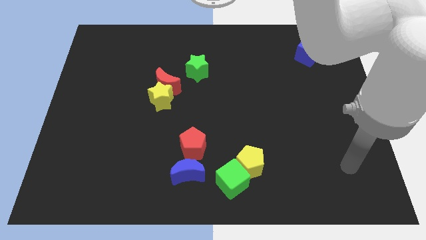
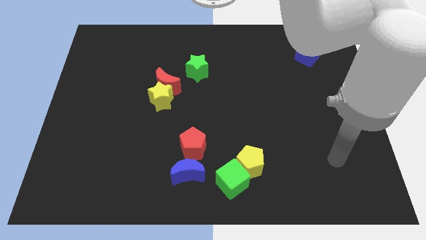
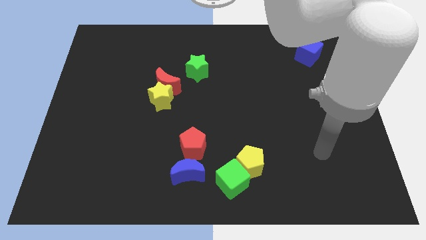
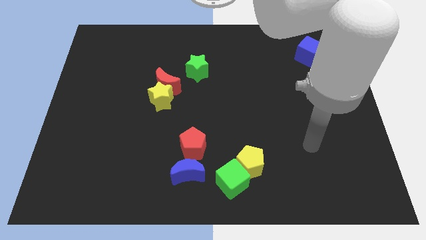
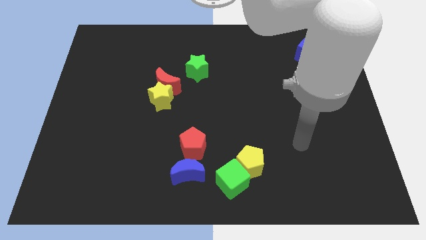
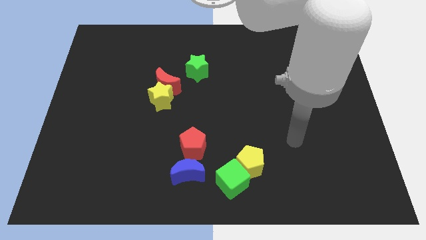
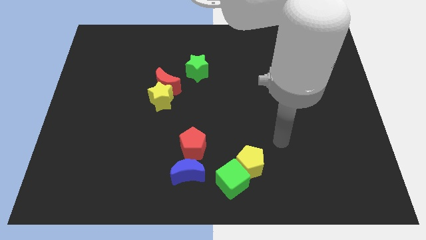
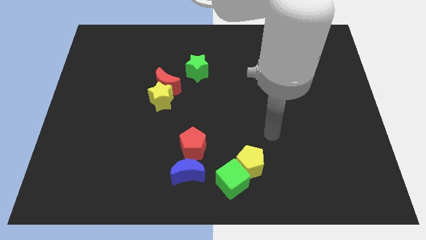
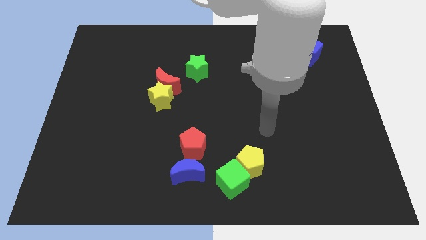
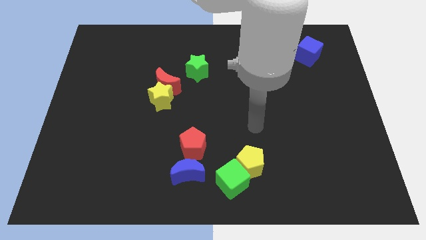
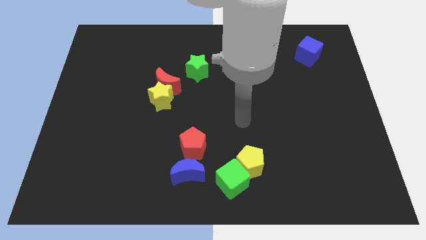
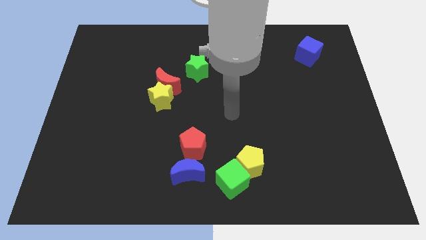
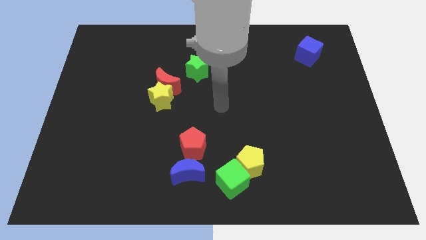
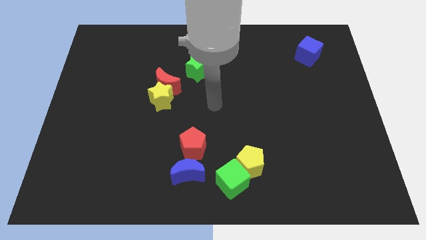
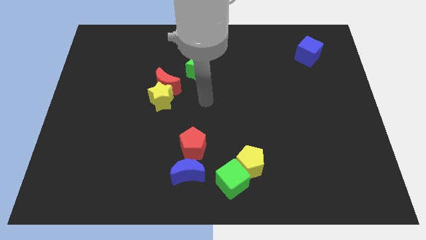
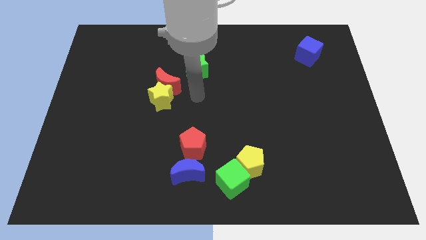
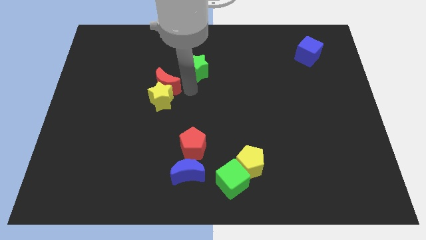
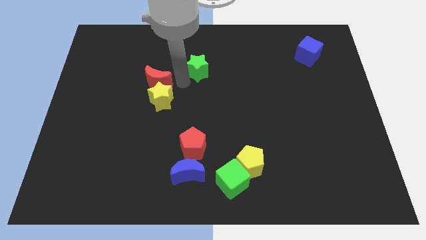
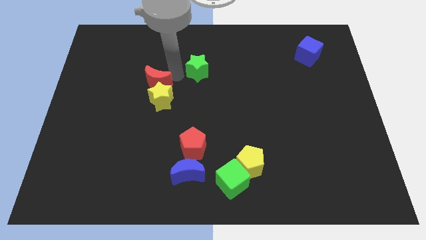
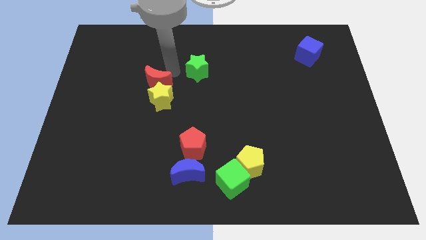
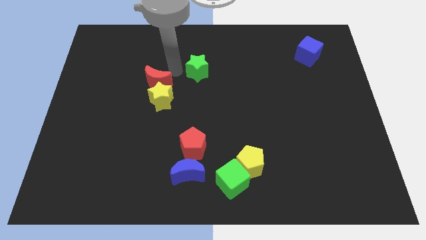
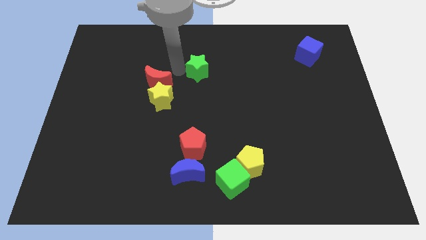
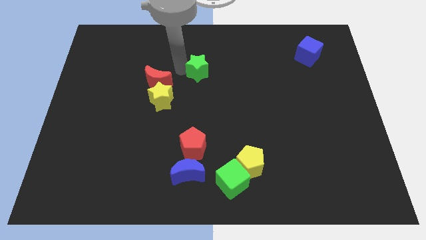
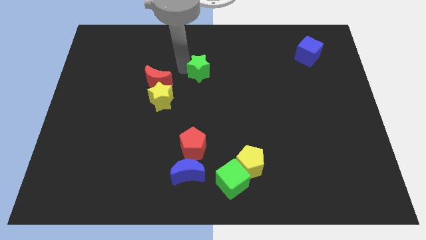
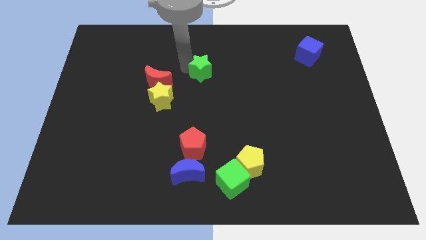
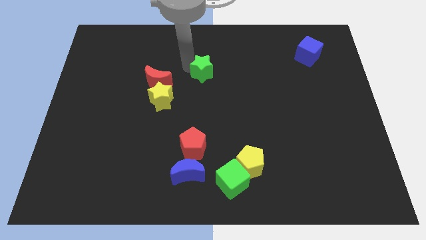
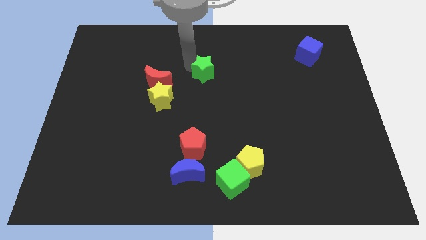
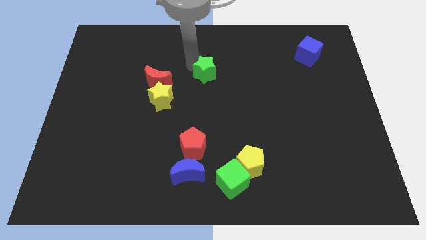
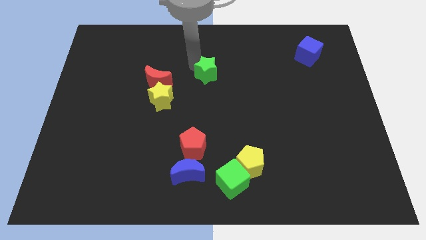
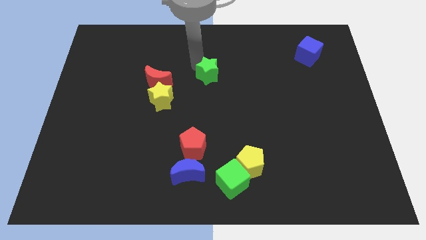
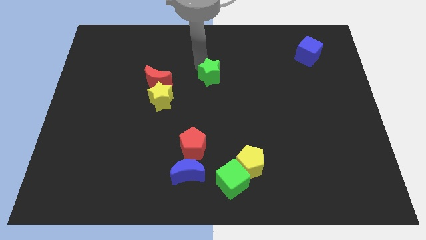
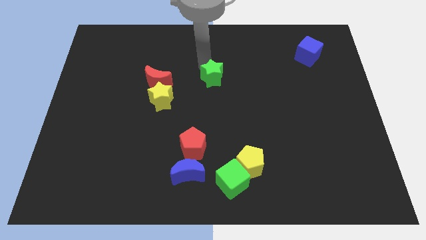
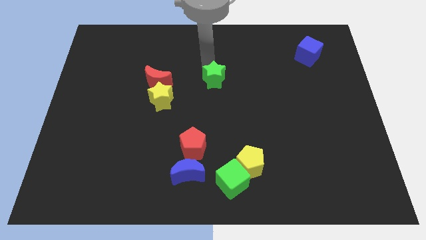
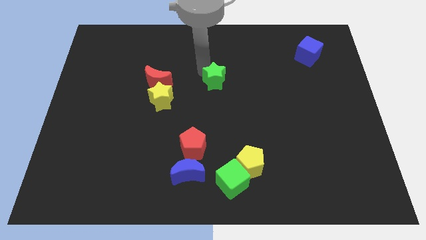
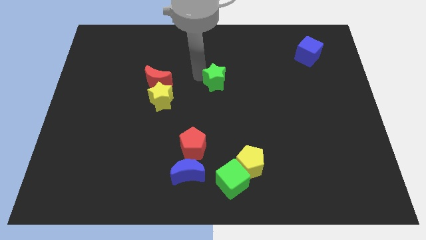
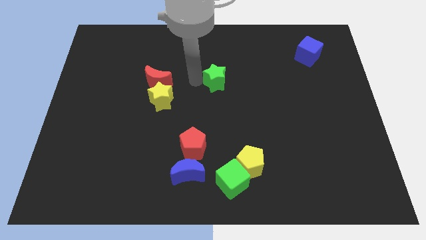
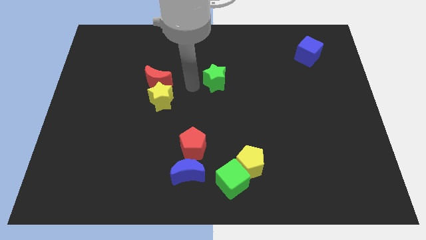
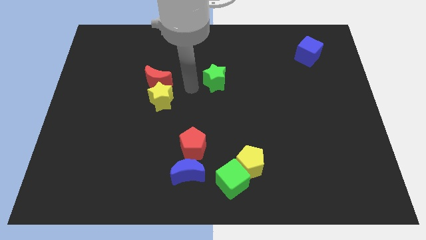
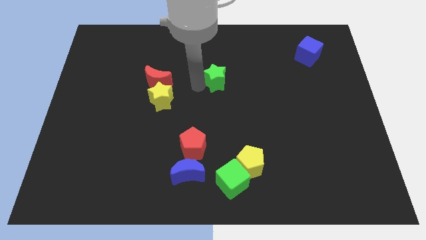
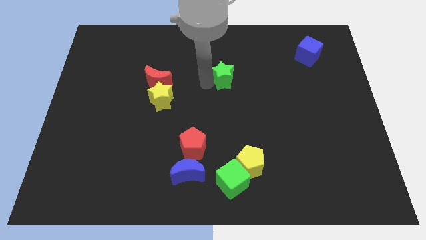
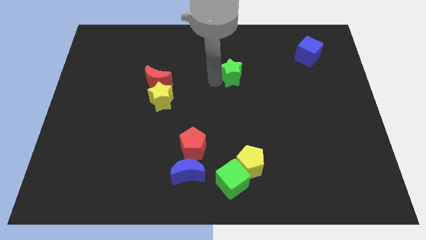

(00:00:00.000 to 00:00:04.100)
push the green star slightly to the right

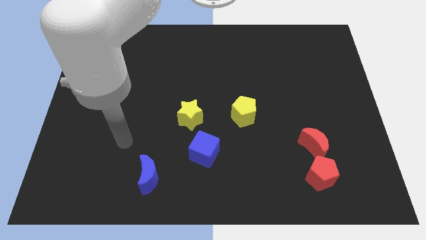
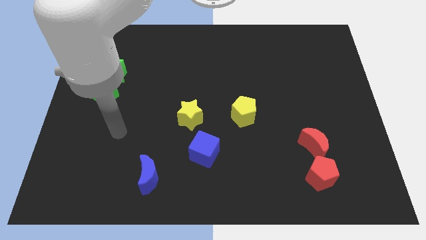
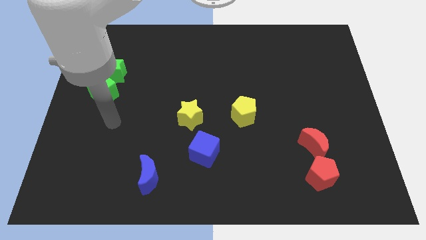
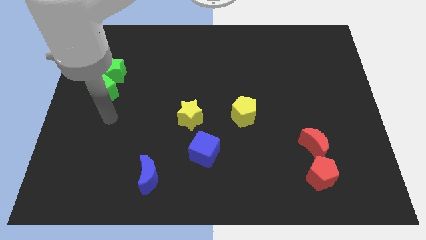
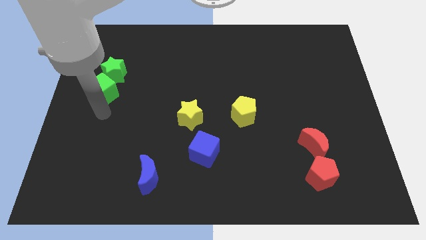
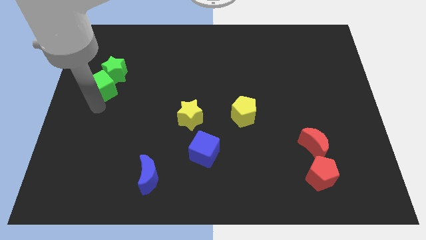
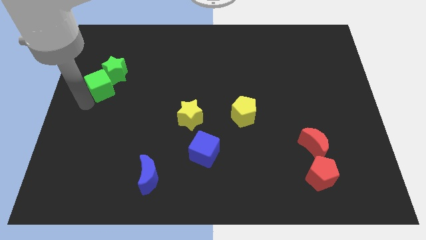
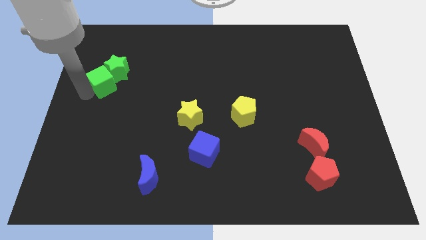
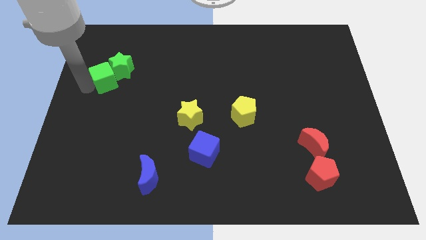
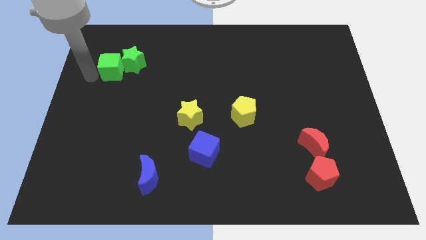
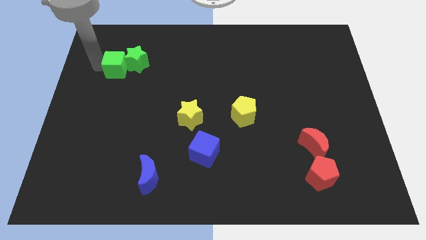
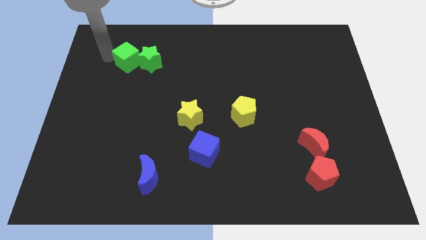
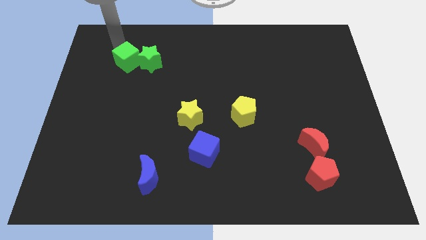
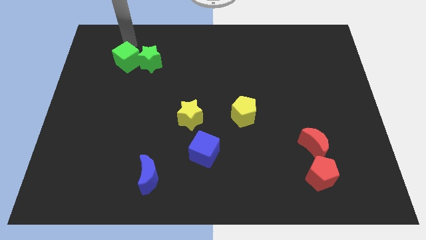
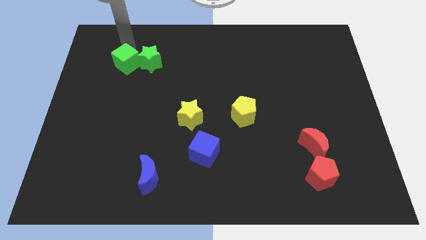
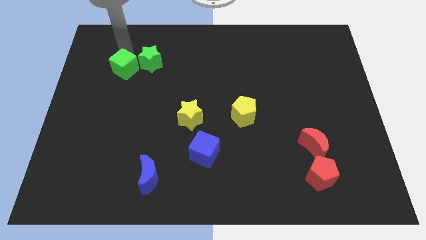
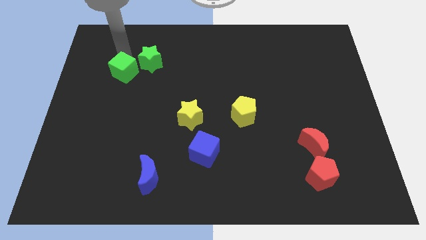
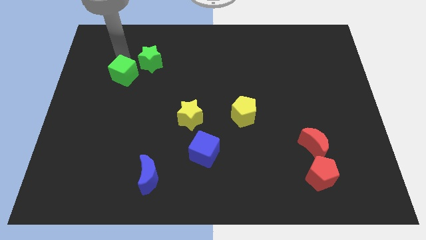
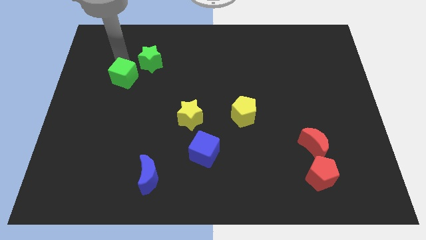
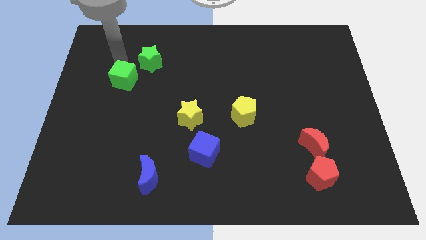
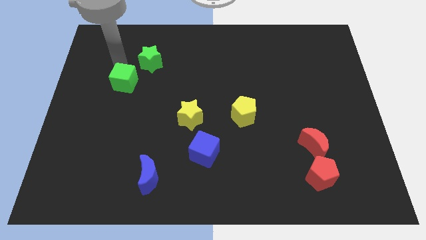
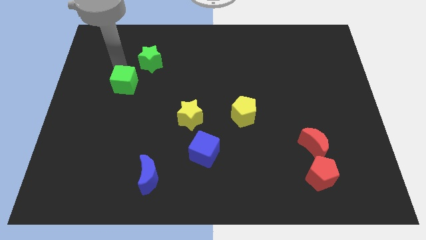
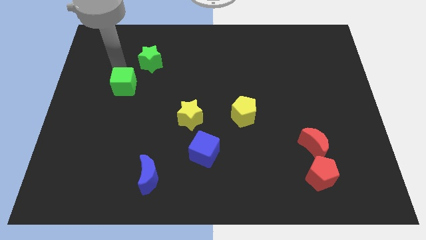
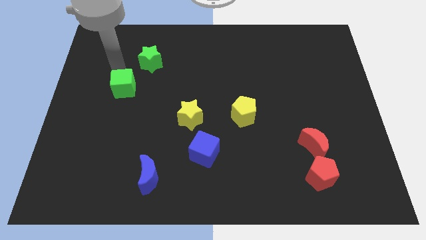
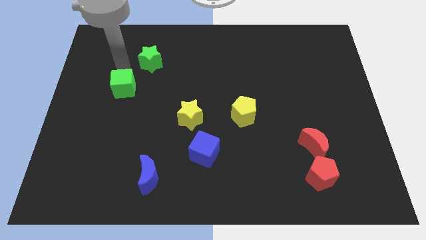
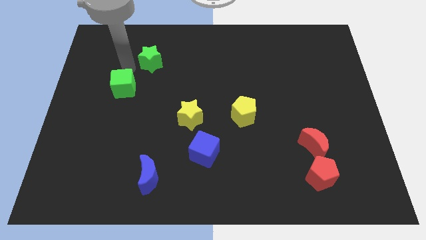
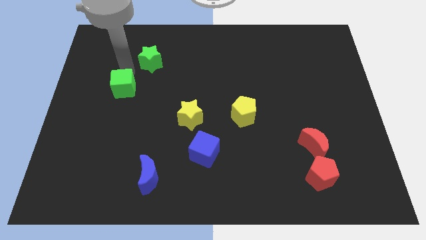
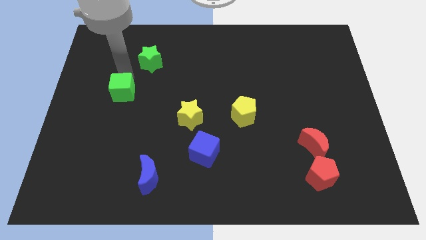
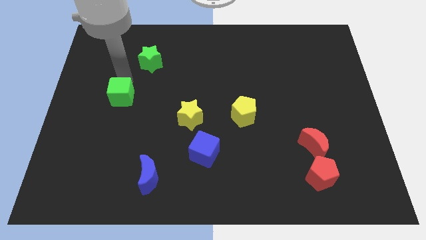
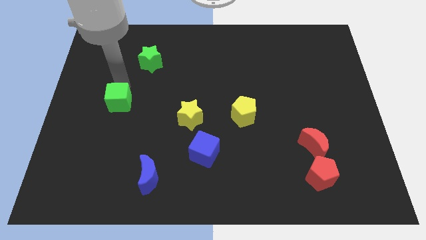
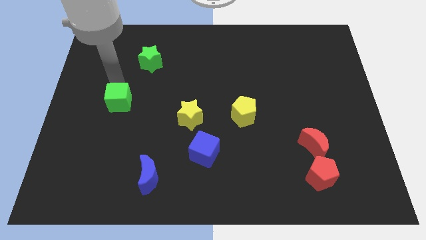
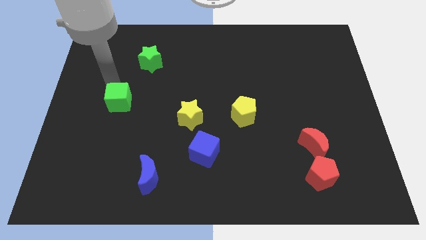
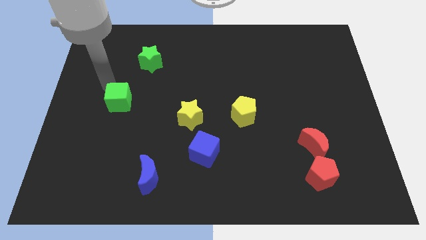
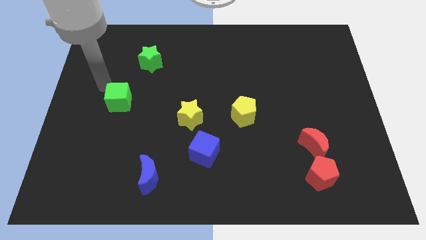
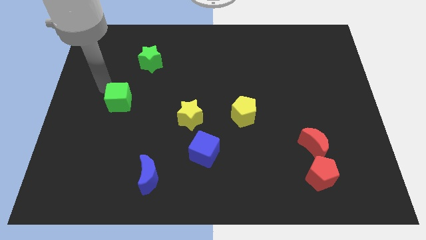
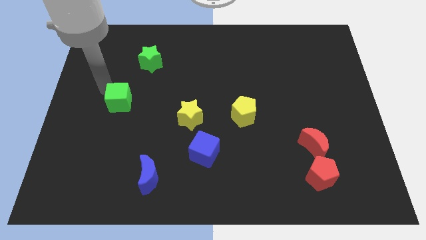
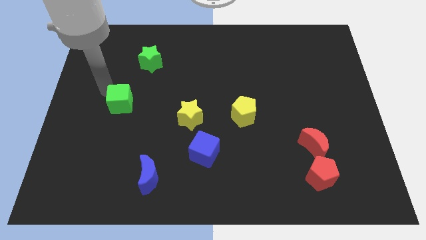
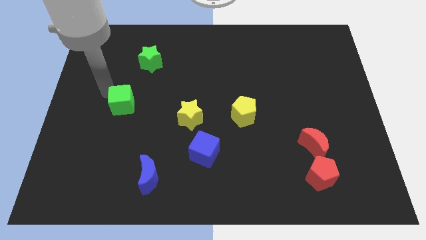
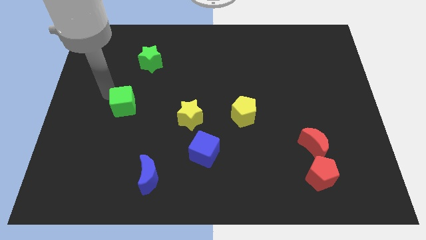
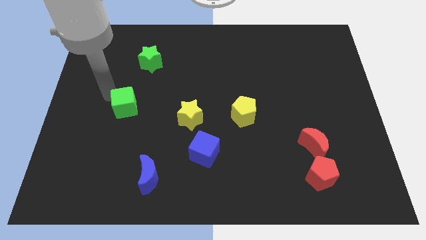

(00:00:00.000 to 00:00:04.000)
push the green cube downwards and then right a little
